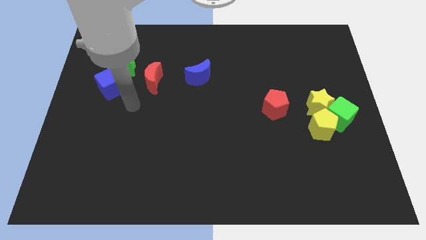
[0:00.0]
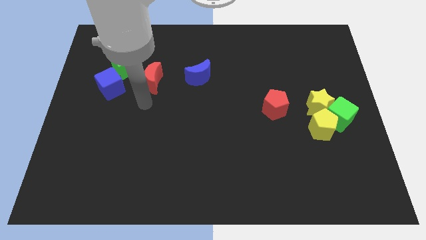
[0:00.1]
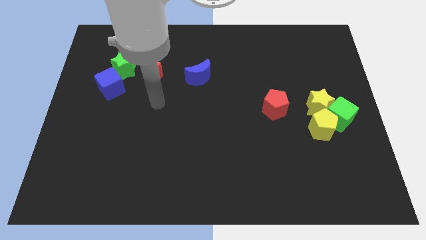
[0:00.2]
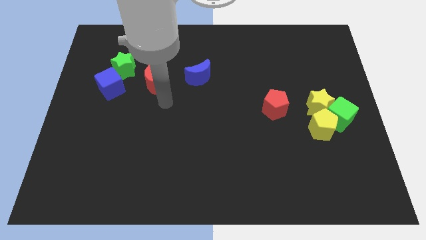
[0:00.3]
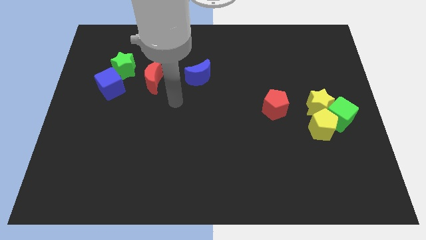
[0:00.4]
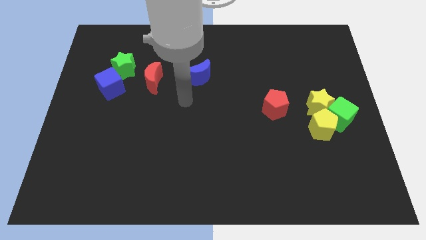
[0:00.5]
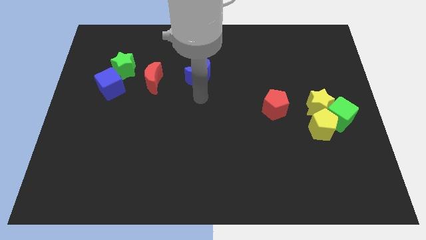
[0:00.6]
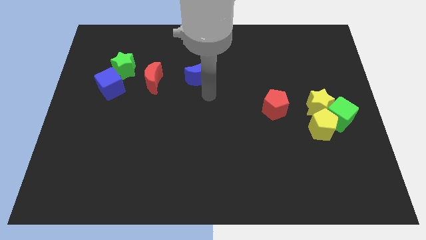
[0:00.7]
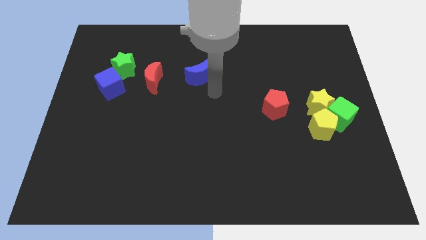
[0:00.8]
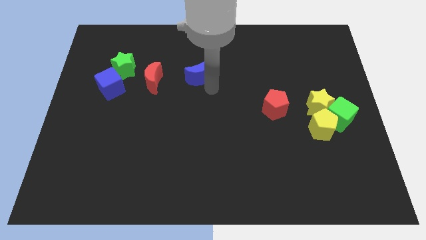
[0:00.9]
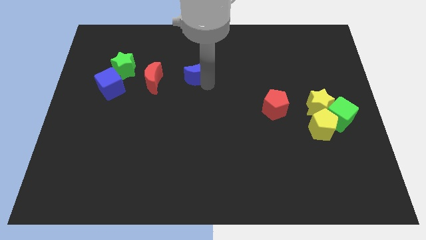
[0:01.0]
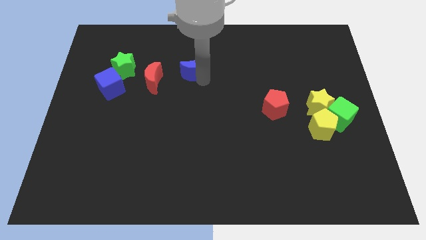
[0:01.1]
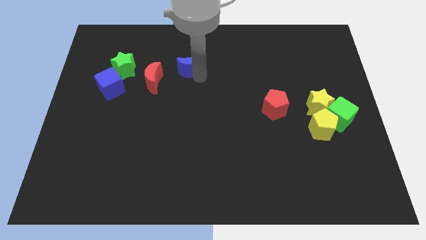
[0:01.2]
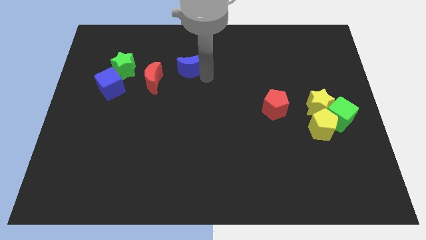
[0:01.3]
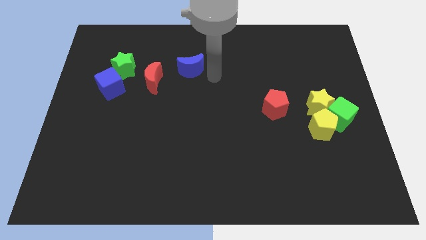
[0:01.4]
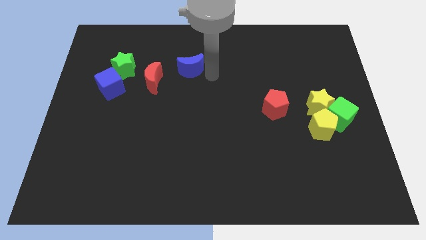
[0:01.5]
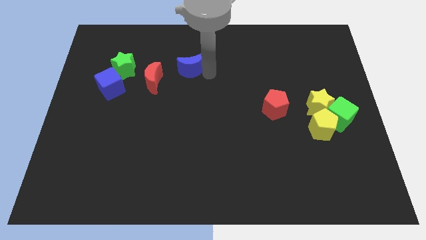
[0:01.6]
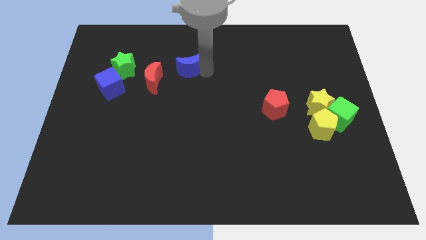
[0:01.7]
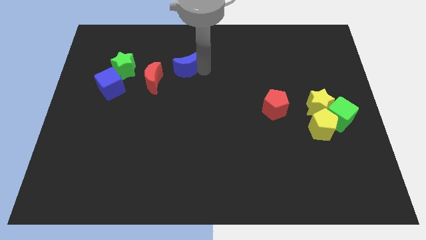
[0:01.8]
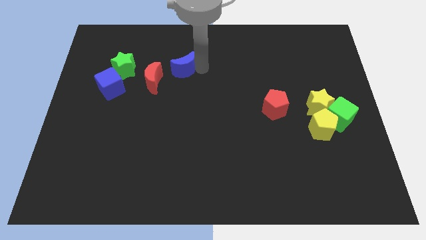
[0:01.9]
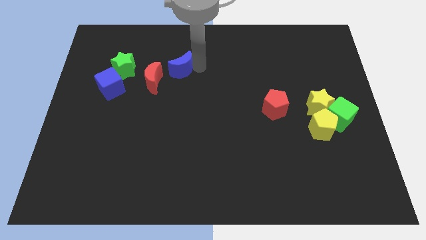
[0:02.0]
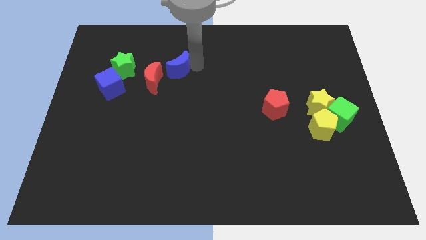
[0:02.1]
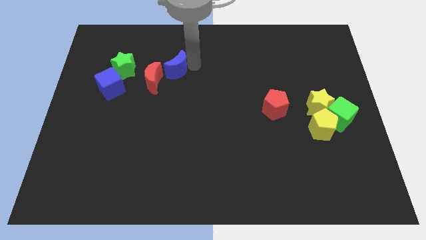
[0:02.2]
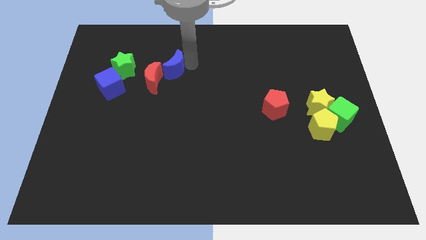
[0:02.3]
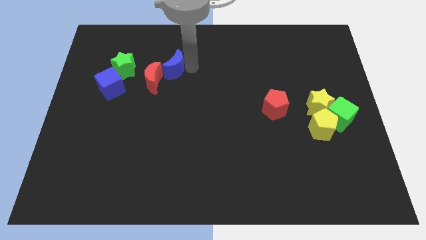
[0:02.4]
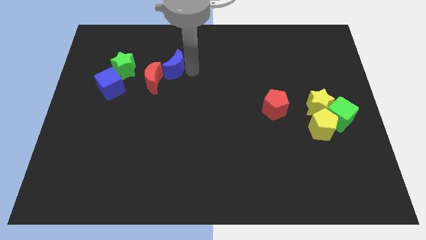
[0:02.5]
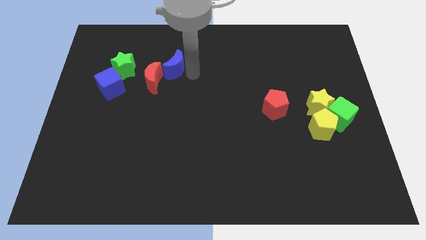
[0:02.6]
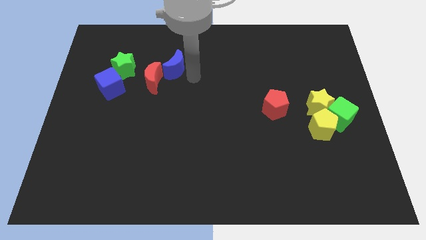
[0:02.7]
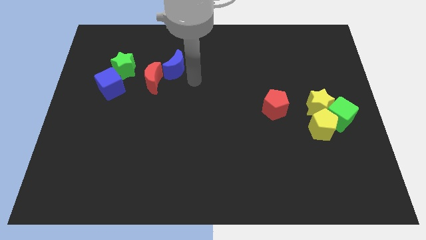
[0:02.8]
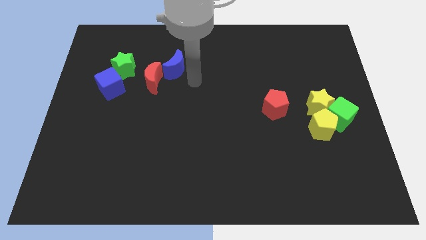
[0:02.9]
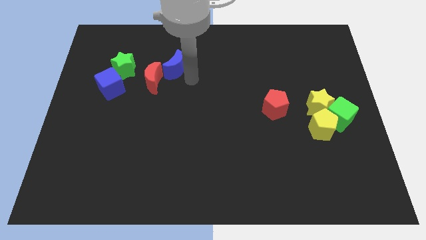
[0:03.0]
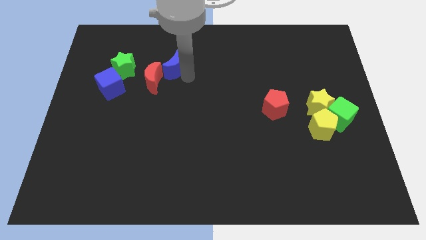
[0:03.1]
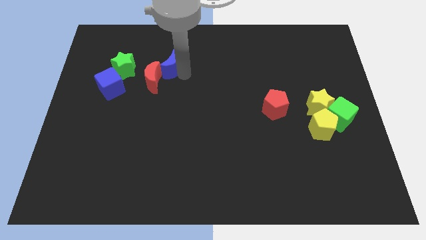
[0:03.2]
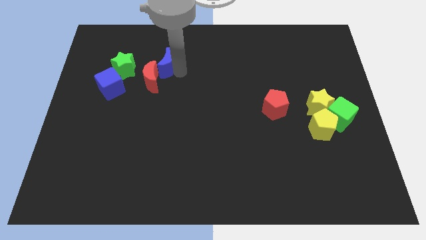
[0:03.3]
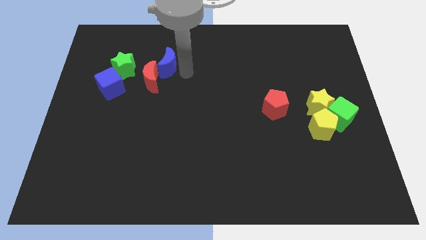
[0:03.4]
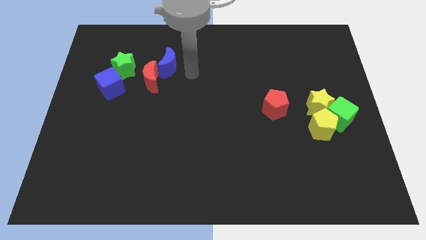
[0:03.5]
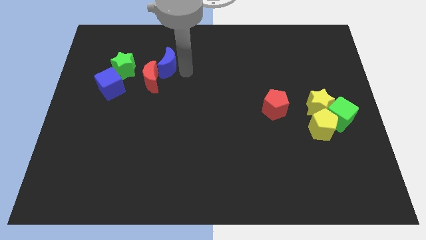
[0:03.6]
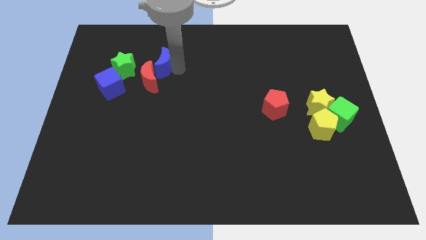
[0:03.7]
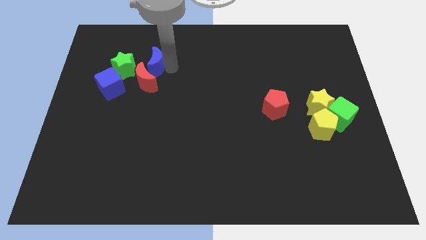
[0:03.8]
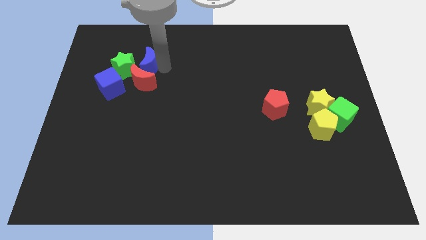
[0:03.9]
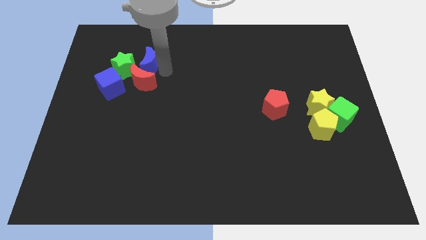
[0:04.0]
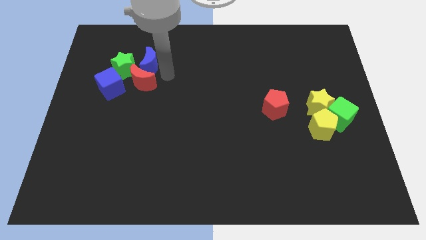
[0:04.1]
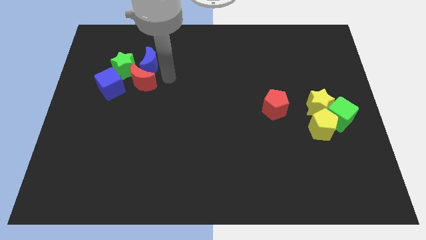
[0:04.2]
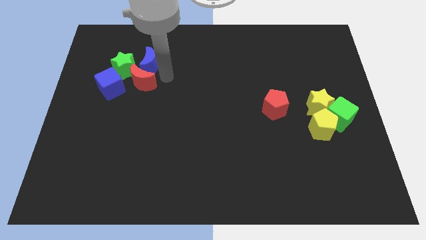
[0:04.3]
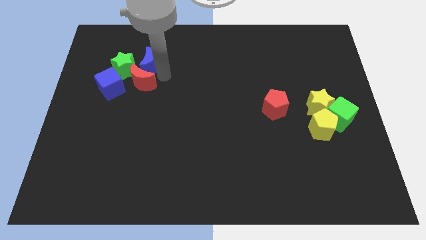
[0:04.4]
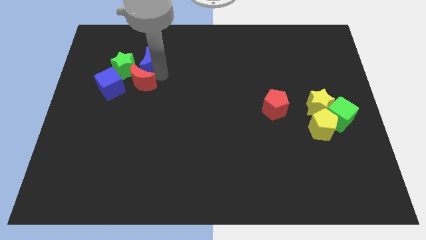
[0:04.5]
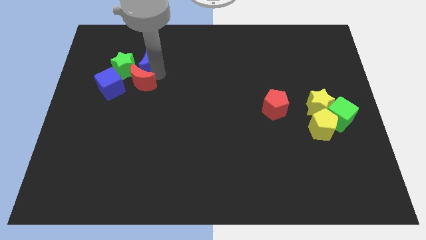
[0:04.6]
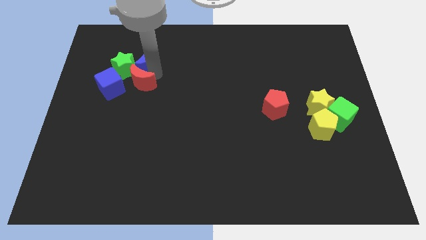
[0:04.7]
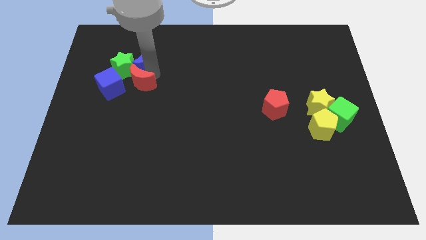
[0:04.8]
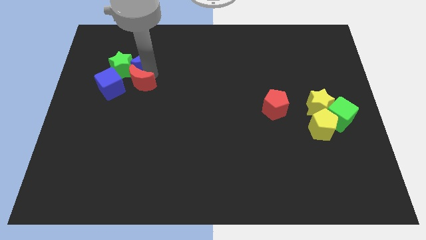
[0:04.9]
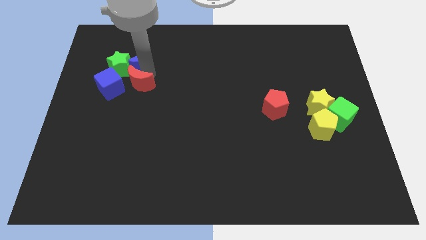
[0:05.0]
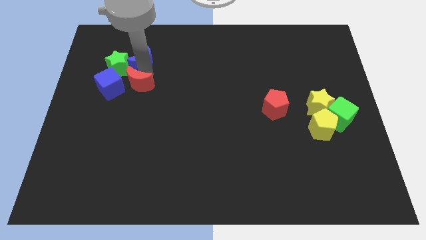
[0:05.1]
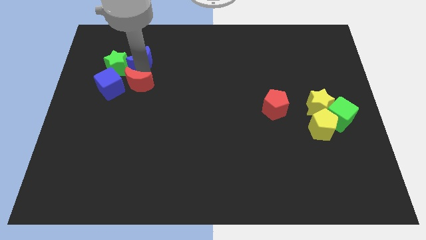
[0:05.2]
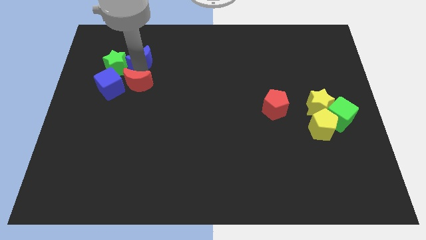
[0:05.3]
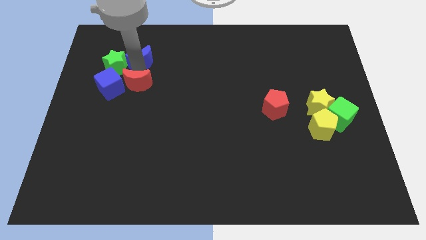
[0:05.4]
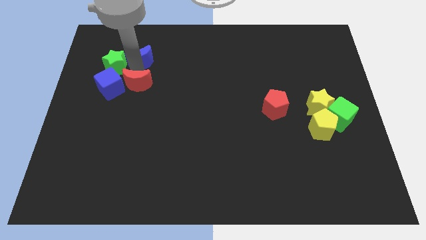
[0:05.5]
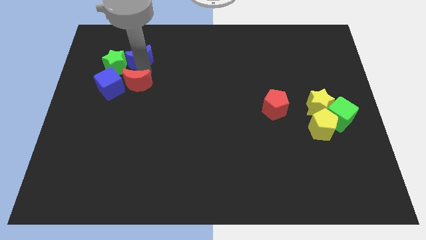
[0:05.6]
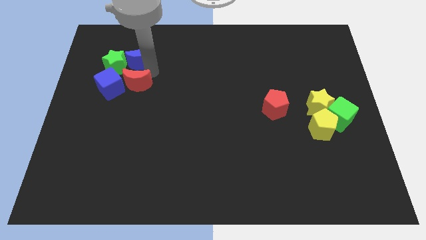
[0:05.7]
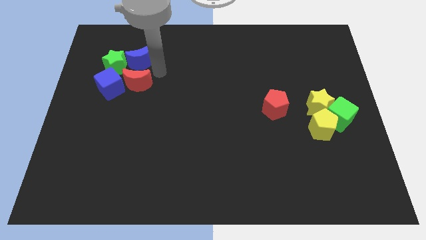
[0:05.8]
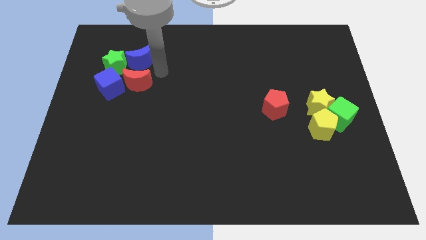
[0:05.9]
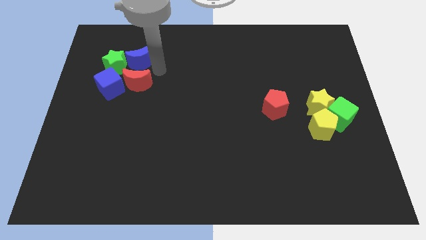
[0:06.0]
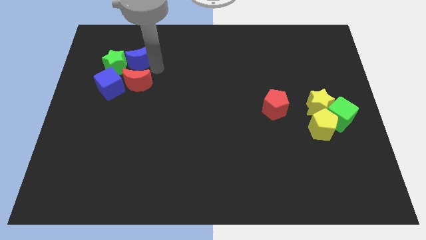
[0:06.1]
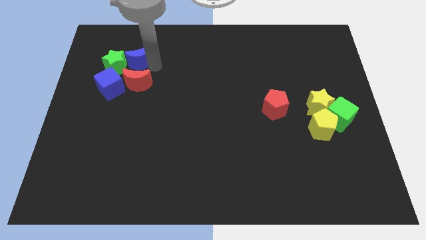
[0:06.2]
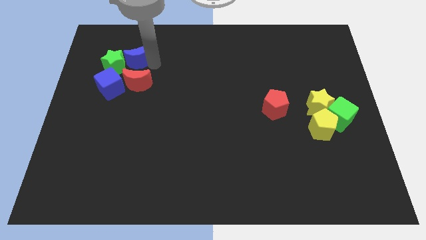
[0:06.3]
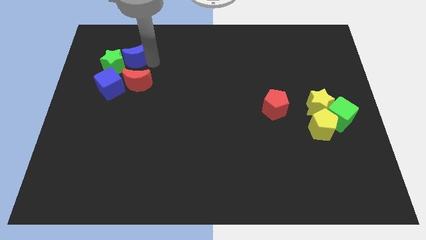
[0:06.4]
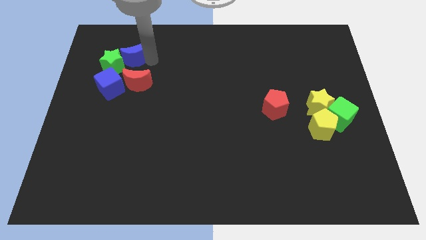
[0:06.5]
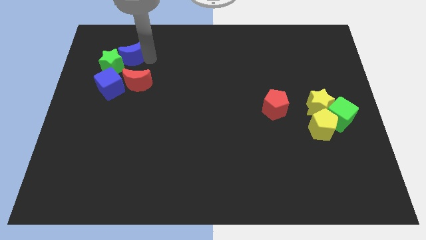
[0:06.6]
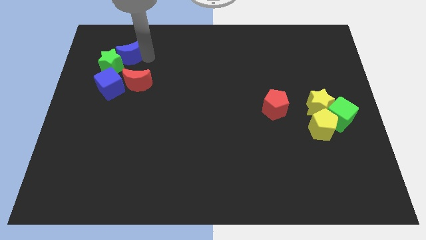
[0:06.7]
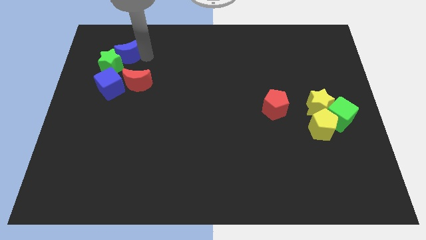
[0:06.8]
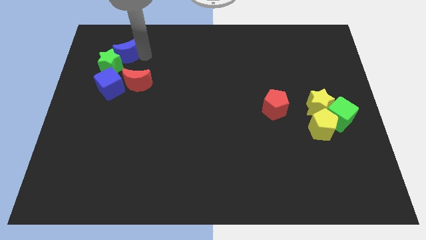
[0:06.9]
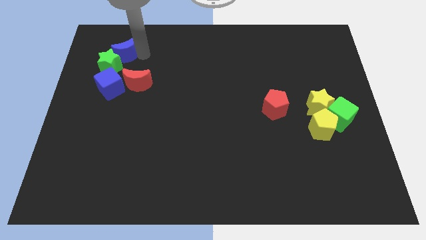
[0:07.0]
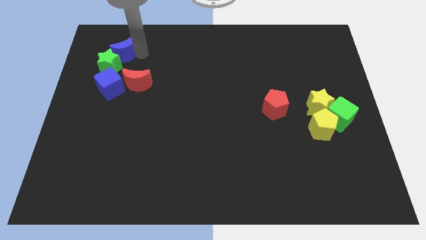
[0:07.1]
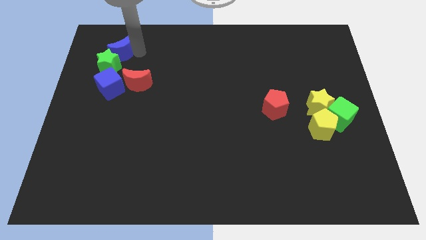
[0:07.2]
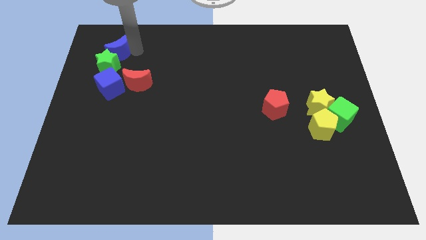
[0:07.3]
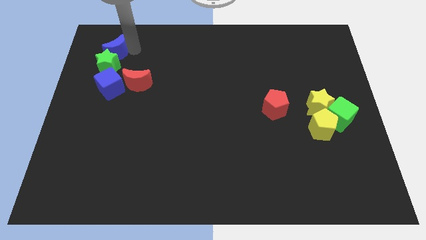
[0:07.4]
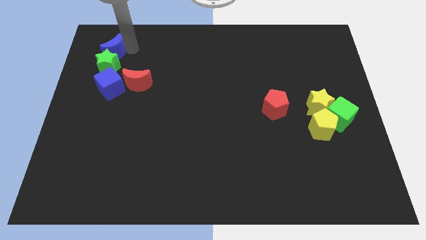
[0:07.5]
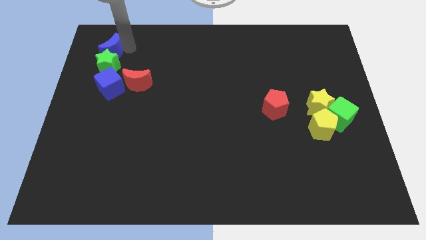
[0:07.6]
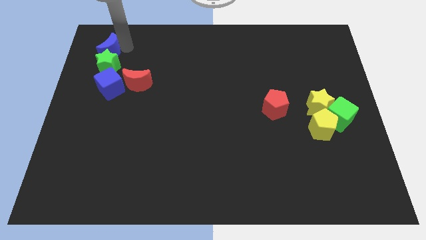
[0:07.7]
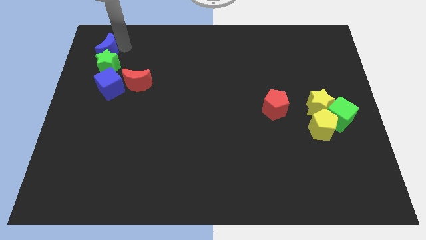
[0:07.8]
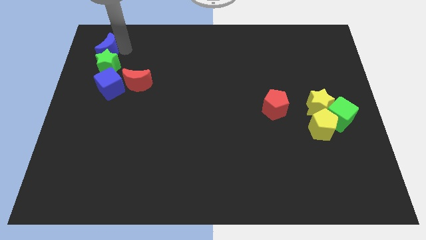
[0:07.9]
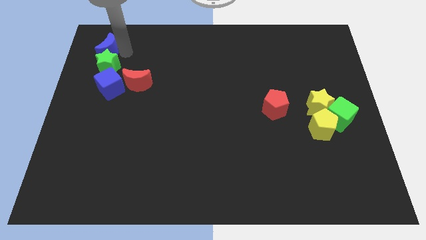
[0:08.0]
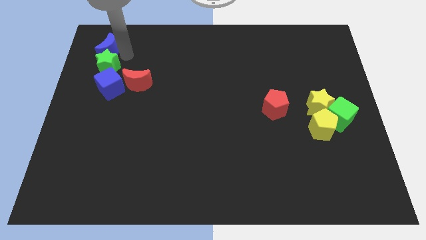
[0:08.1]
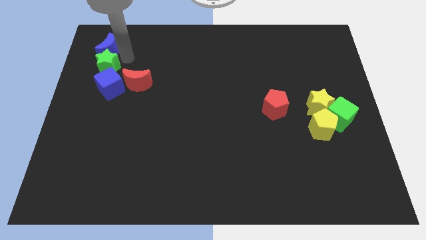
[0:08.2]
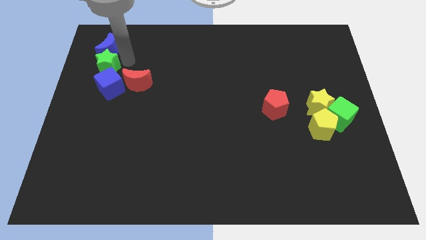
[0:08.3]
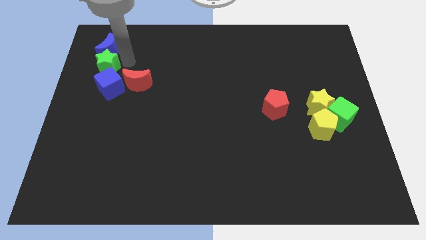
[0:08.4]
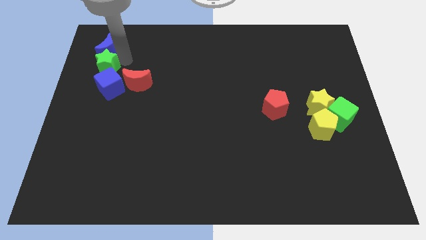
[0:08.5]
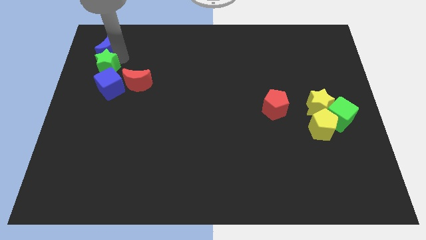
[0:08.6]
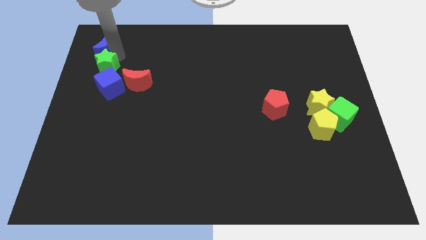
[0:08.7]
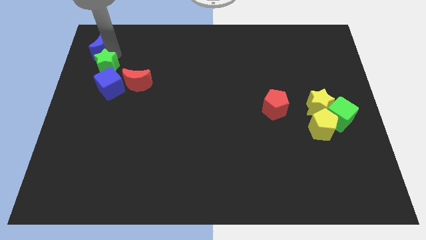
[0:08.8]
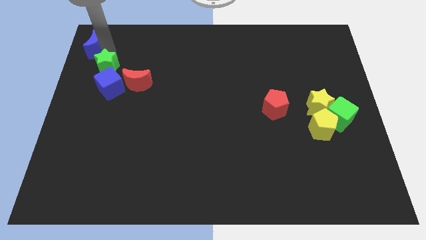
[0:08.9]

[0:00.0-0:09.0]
slide the blue moon to the top left
